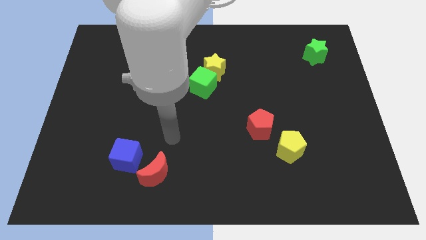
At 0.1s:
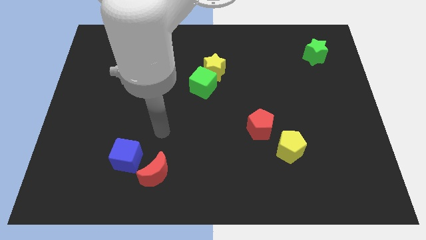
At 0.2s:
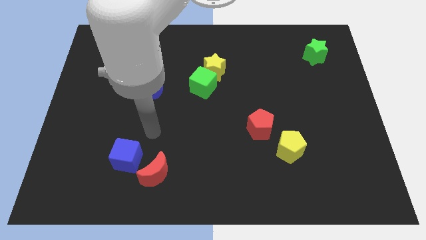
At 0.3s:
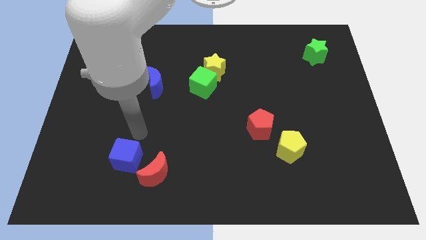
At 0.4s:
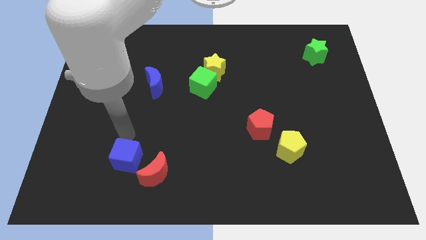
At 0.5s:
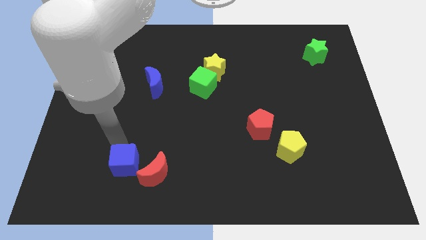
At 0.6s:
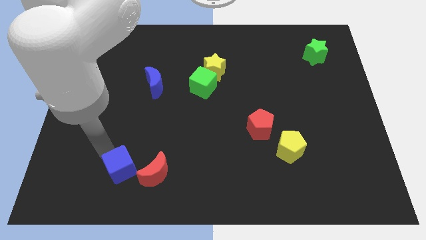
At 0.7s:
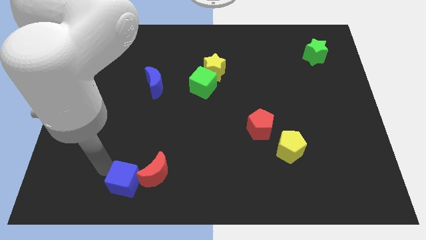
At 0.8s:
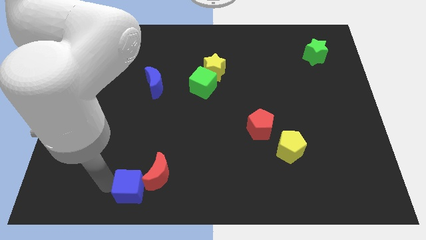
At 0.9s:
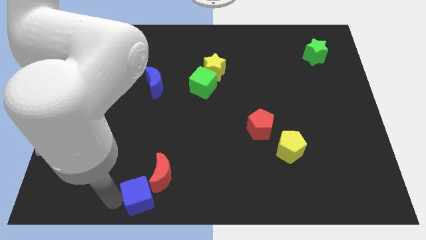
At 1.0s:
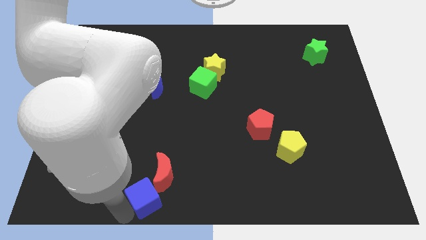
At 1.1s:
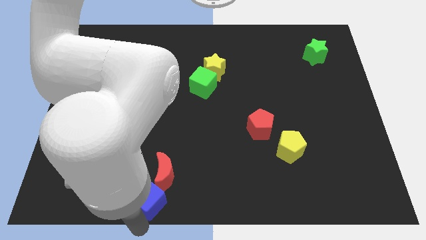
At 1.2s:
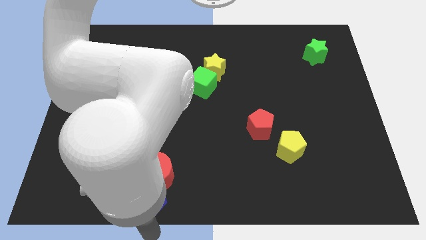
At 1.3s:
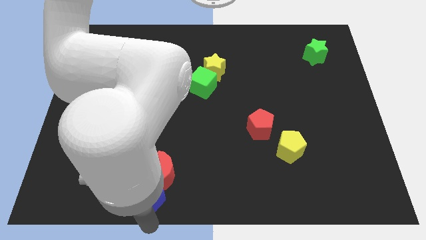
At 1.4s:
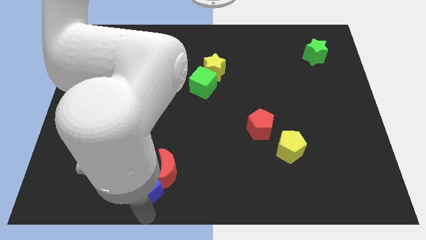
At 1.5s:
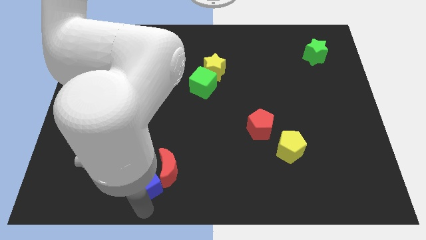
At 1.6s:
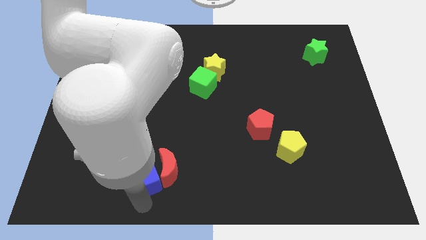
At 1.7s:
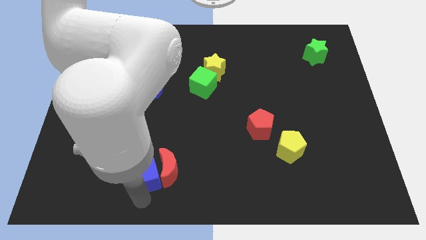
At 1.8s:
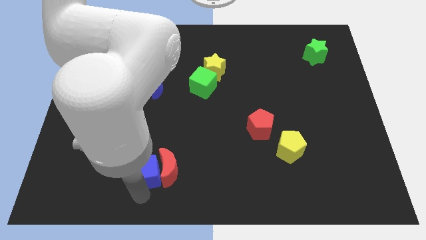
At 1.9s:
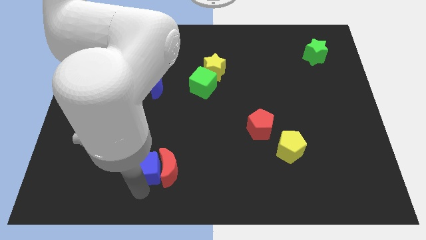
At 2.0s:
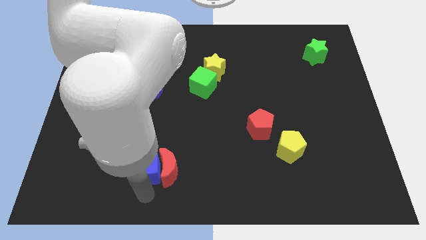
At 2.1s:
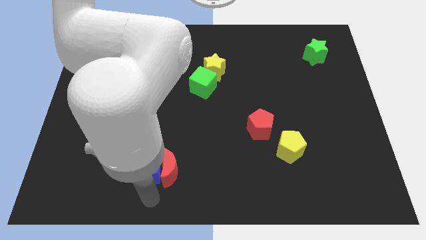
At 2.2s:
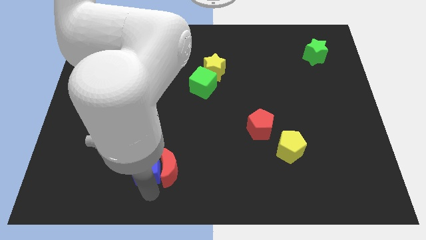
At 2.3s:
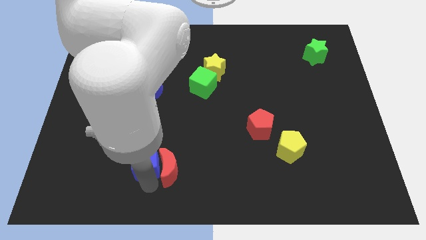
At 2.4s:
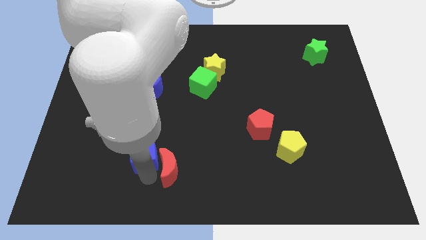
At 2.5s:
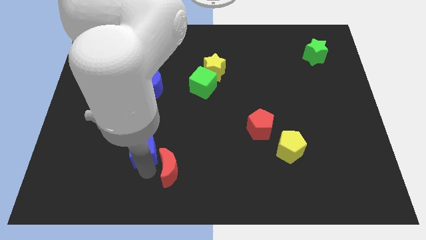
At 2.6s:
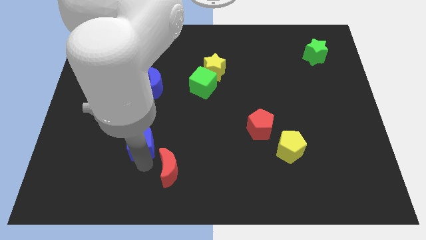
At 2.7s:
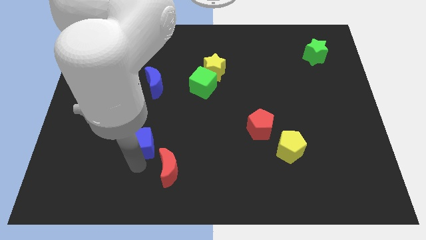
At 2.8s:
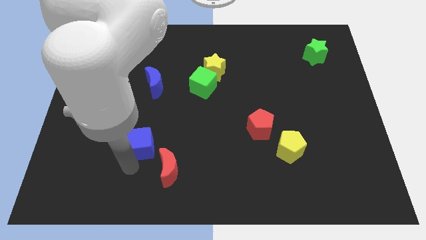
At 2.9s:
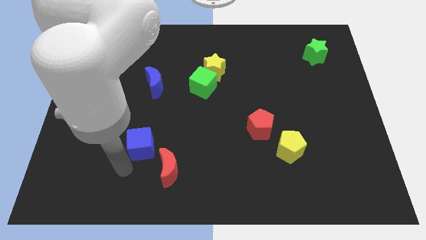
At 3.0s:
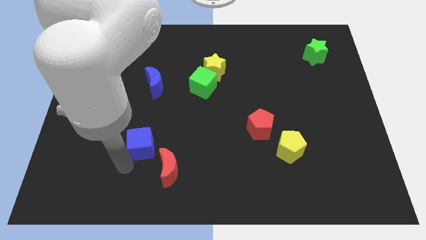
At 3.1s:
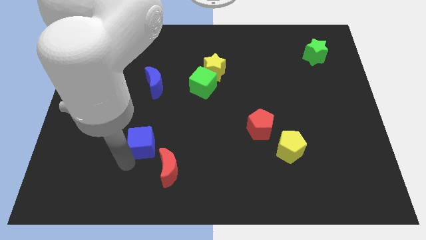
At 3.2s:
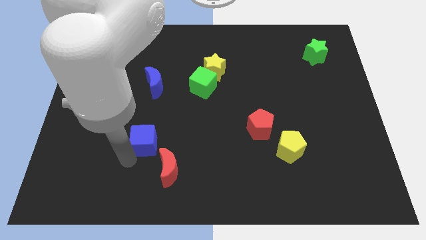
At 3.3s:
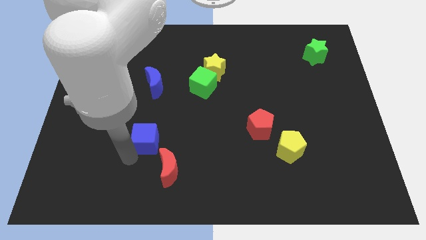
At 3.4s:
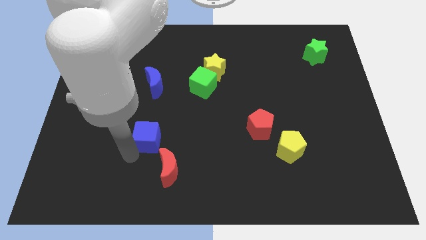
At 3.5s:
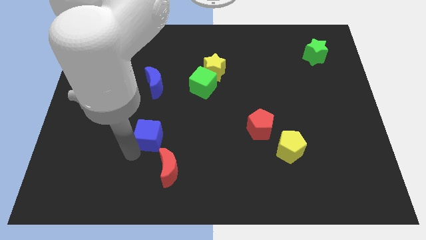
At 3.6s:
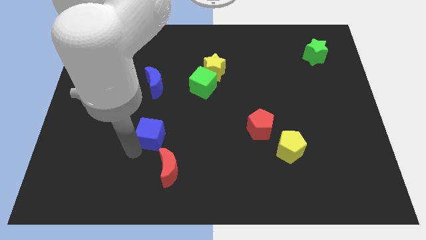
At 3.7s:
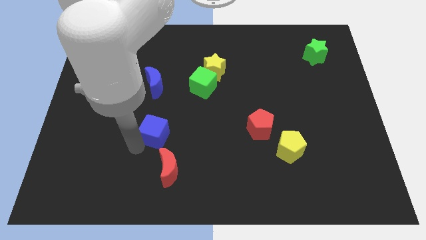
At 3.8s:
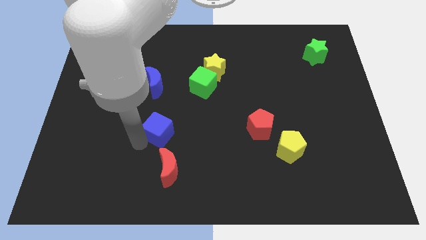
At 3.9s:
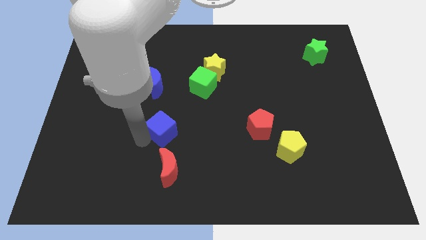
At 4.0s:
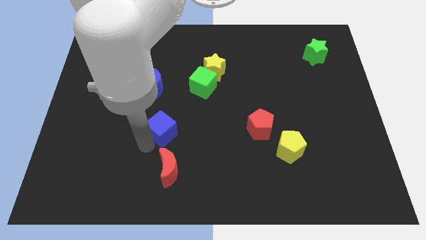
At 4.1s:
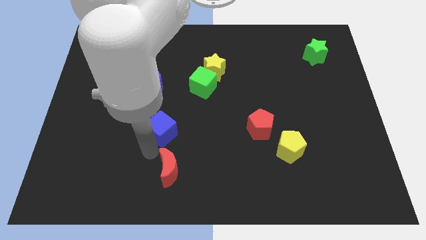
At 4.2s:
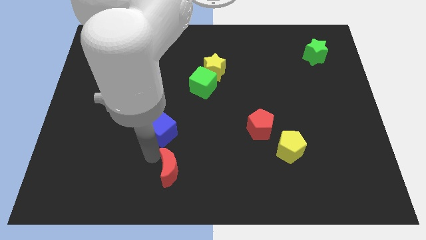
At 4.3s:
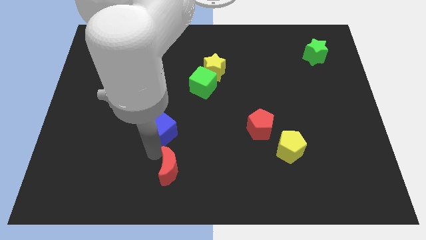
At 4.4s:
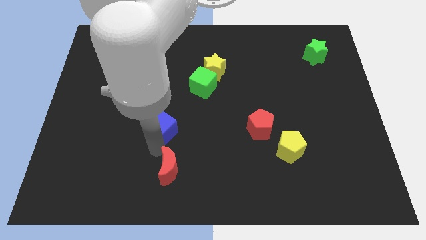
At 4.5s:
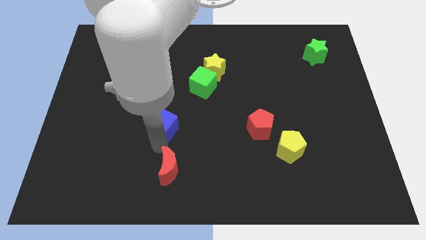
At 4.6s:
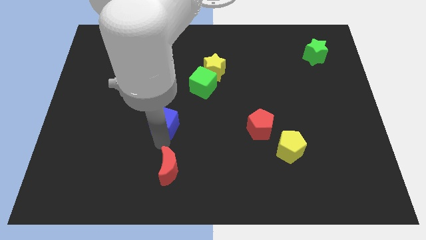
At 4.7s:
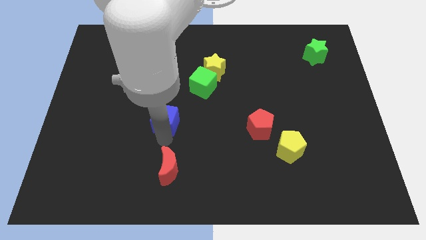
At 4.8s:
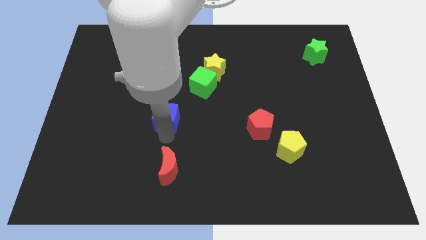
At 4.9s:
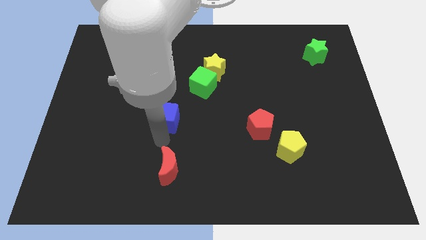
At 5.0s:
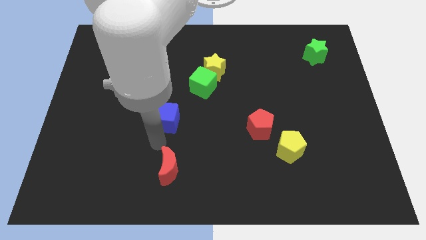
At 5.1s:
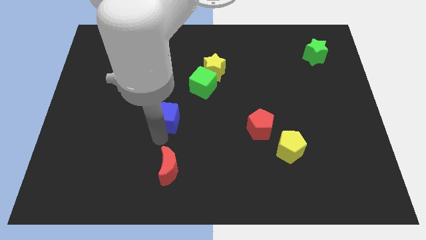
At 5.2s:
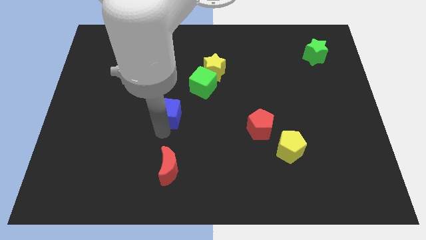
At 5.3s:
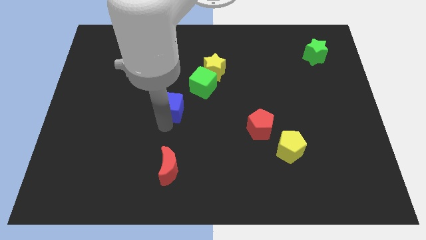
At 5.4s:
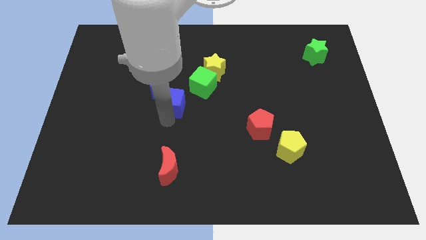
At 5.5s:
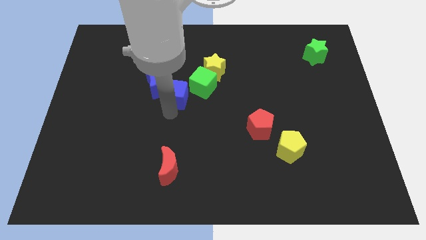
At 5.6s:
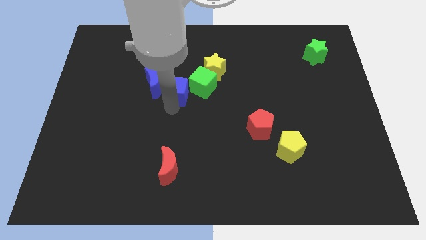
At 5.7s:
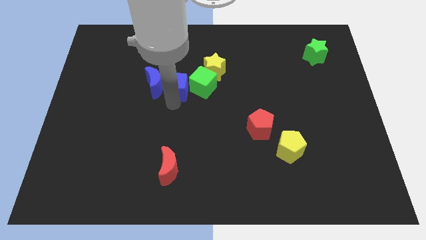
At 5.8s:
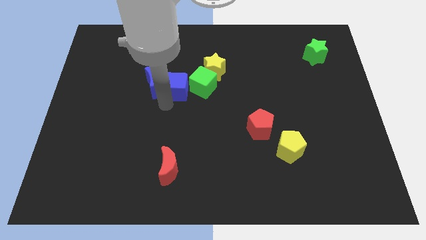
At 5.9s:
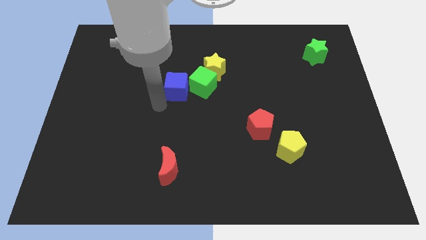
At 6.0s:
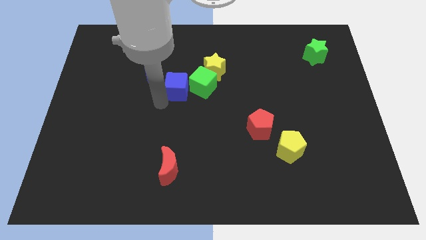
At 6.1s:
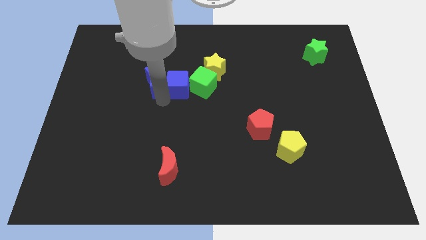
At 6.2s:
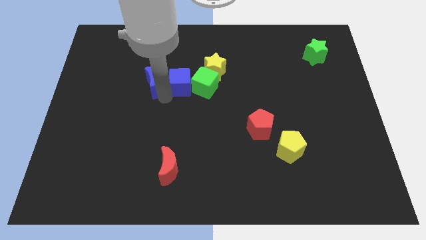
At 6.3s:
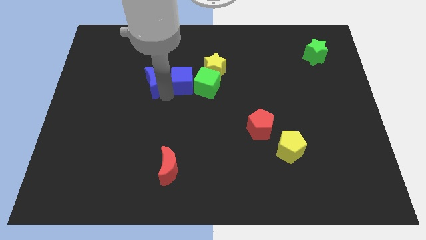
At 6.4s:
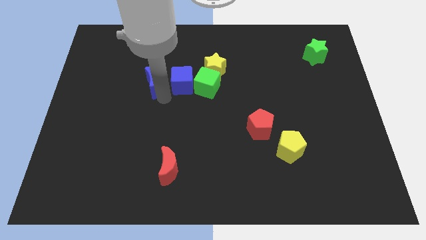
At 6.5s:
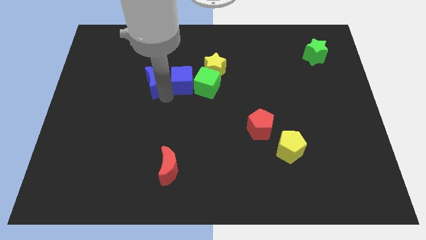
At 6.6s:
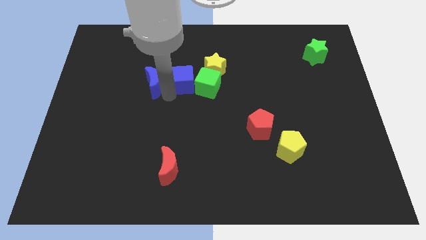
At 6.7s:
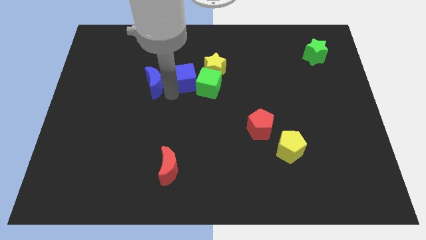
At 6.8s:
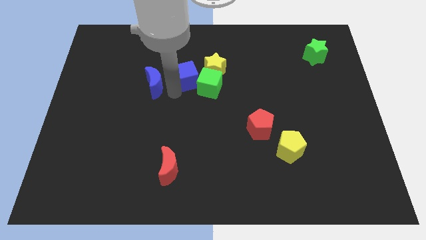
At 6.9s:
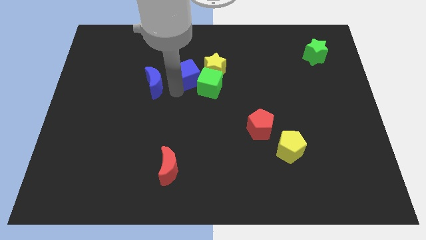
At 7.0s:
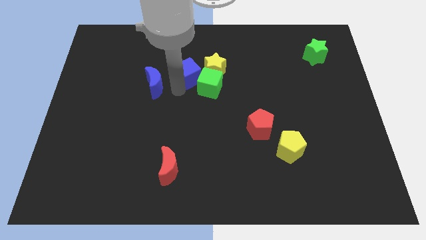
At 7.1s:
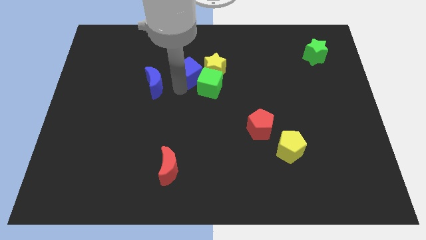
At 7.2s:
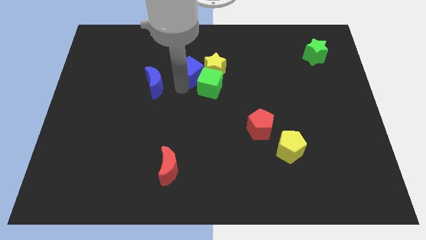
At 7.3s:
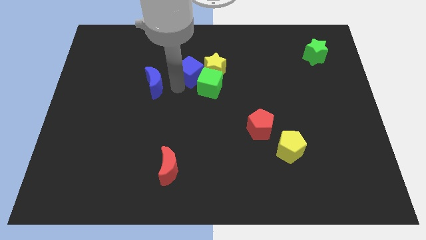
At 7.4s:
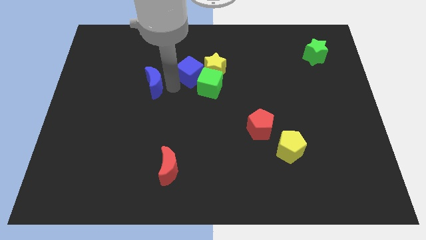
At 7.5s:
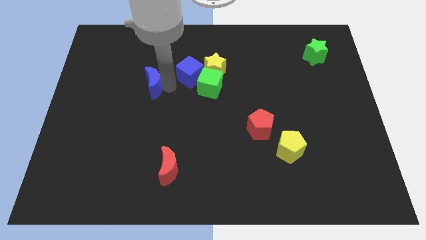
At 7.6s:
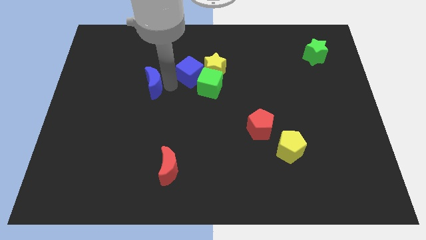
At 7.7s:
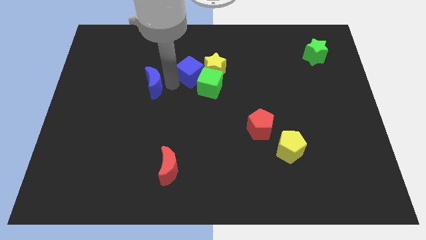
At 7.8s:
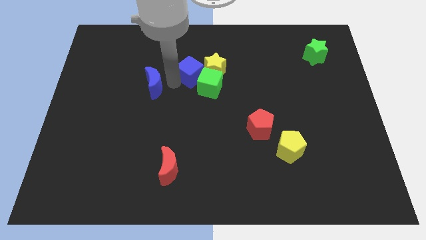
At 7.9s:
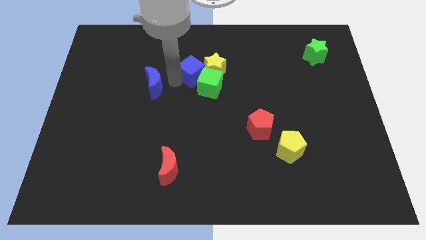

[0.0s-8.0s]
slide the blue cube towards the yellow star

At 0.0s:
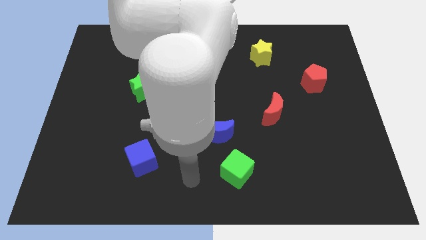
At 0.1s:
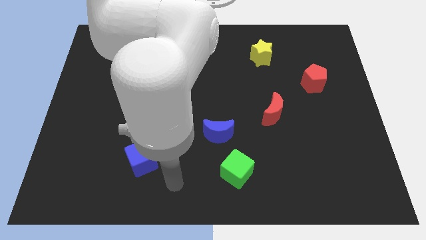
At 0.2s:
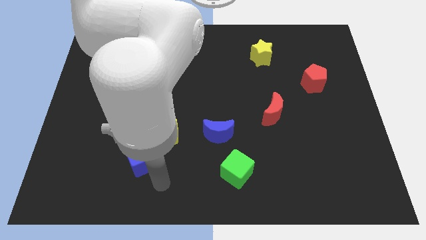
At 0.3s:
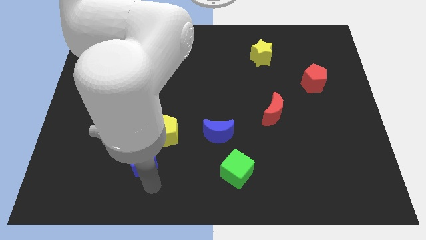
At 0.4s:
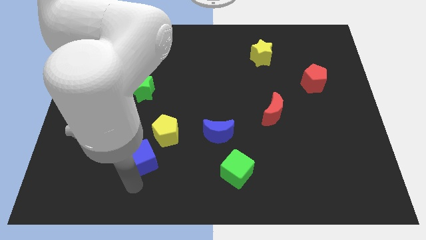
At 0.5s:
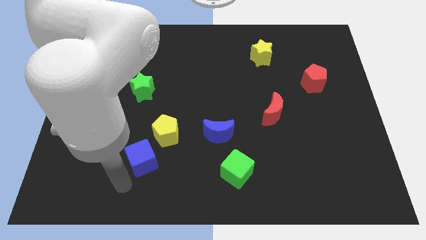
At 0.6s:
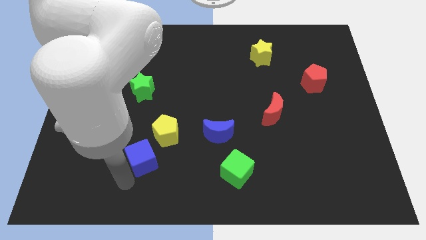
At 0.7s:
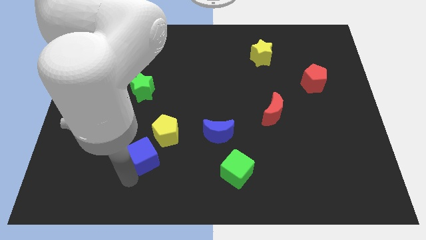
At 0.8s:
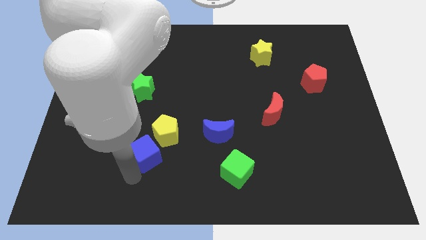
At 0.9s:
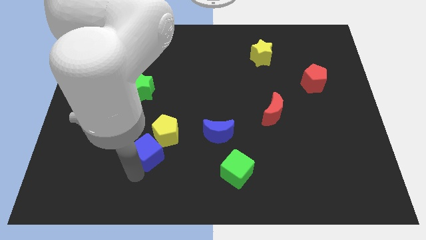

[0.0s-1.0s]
push the blue cube towards the yellow pentagon
